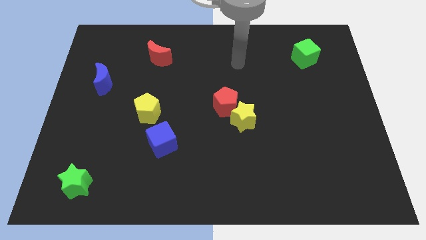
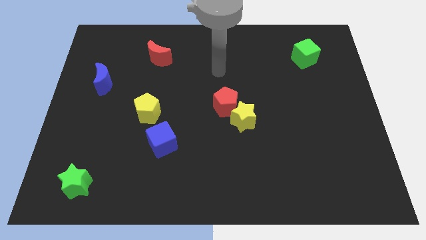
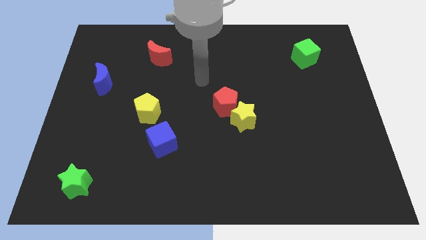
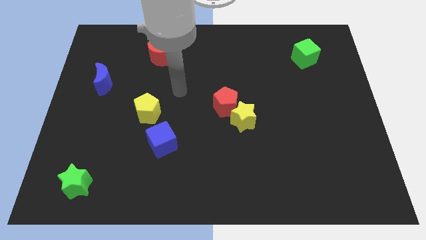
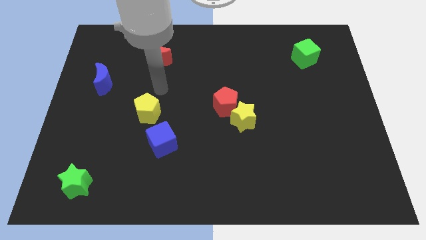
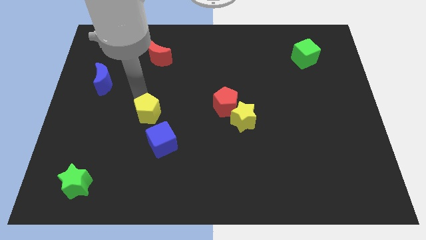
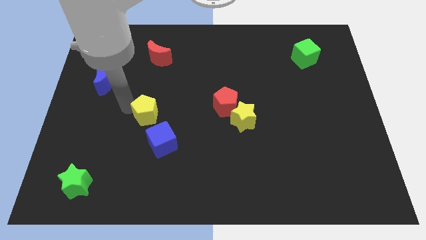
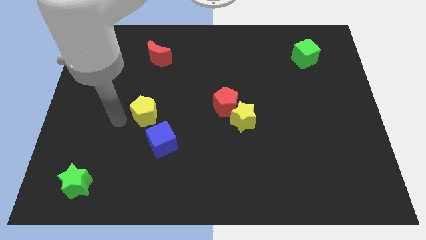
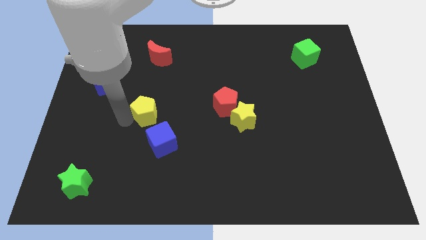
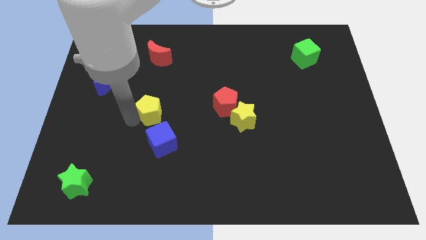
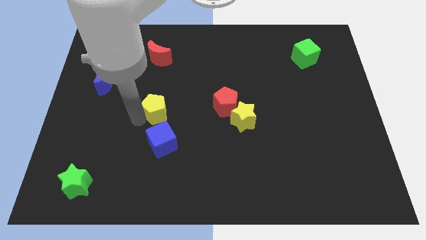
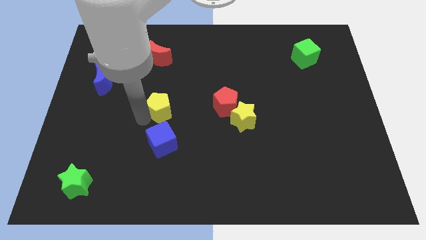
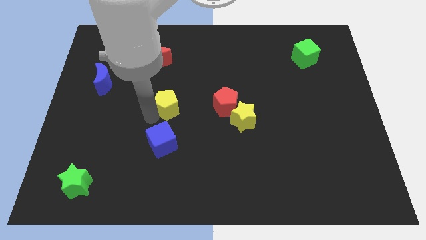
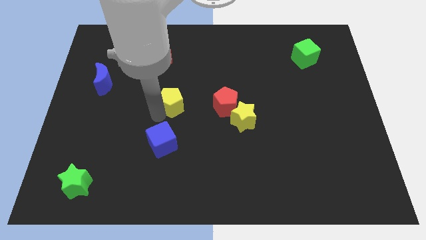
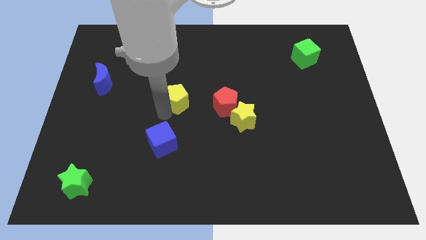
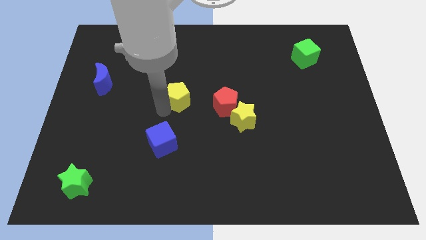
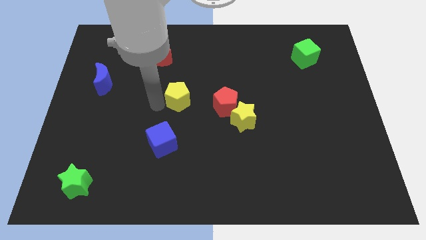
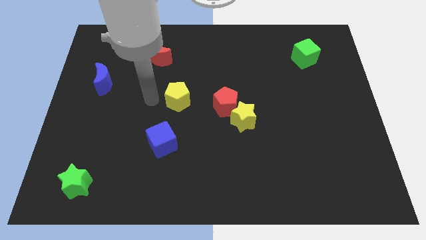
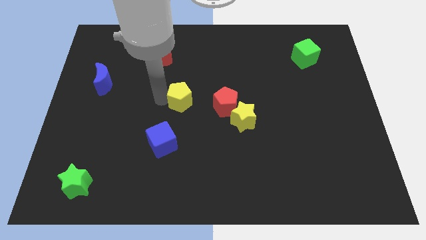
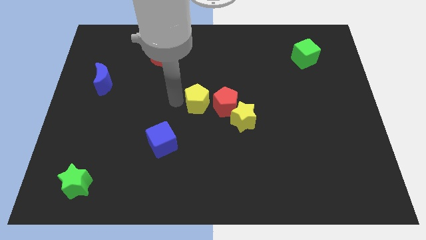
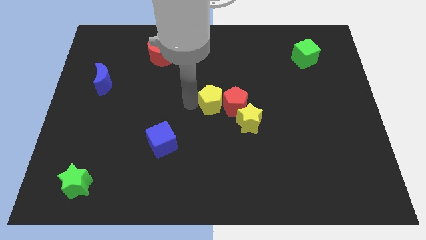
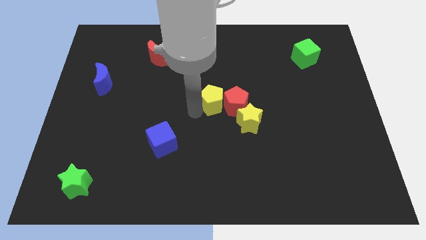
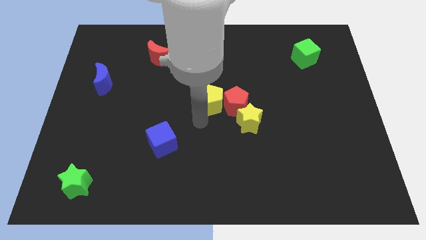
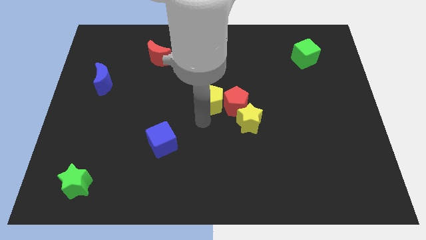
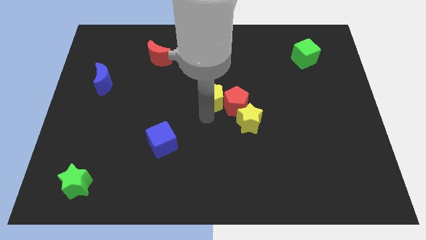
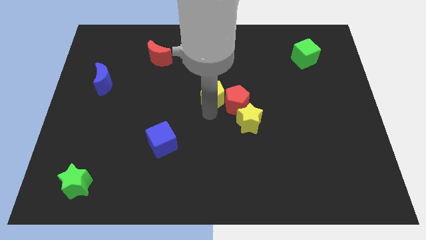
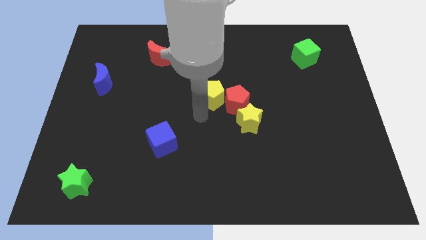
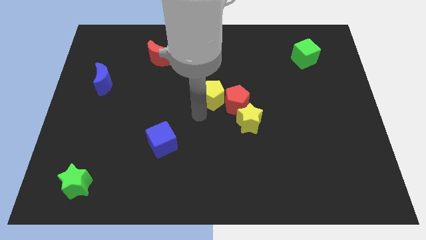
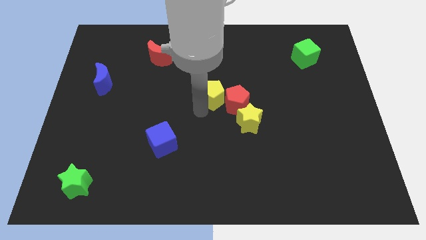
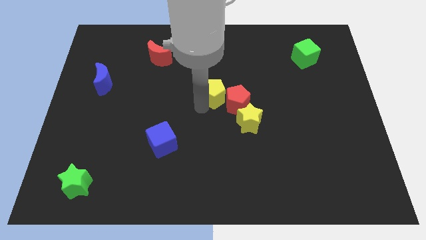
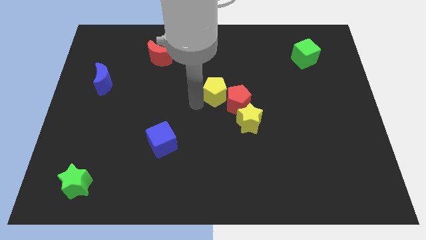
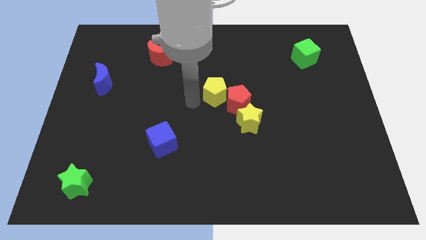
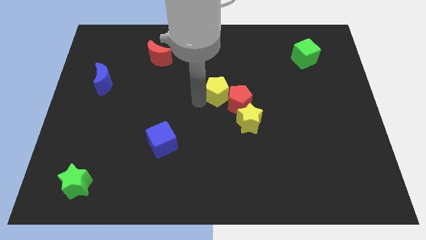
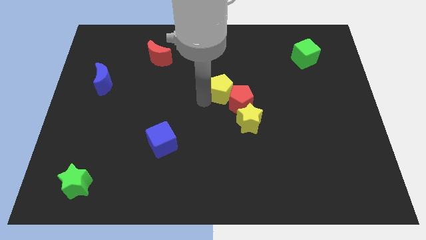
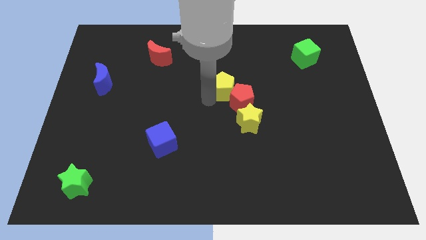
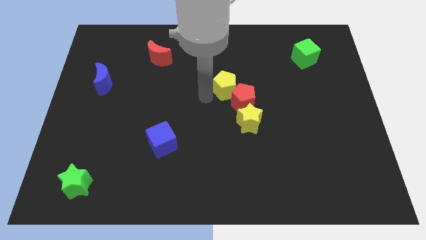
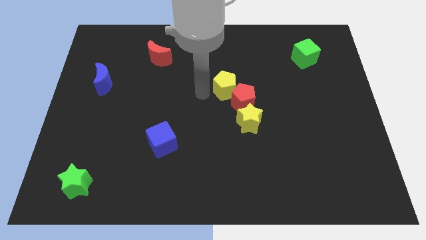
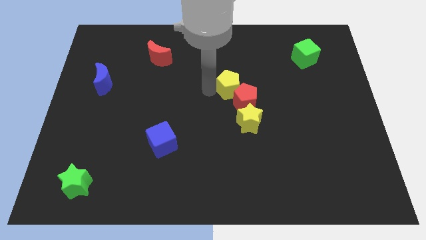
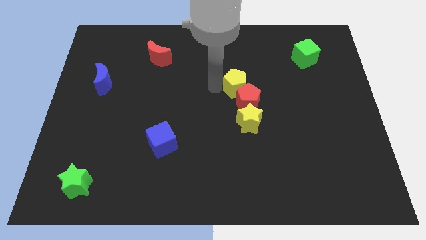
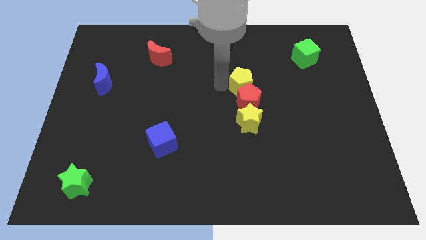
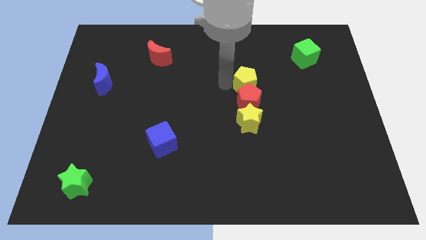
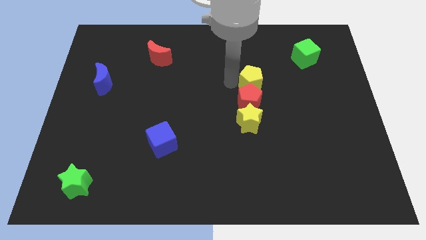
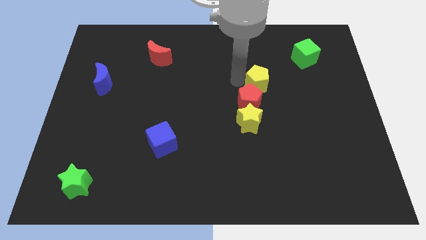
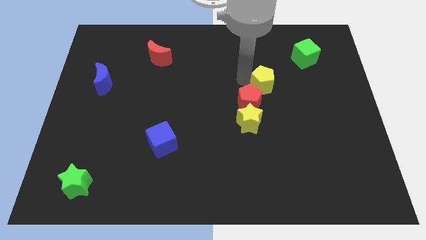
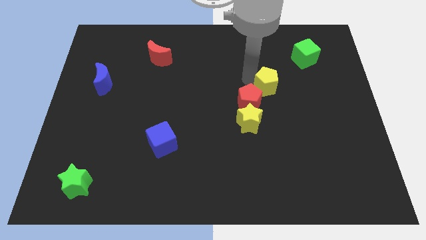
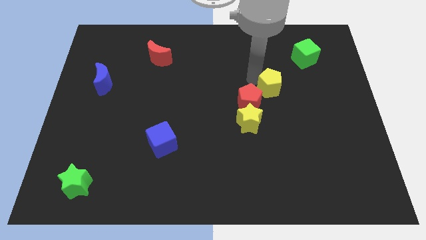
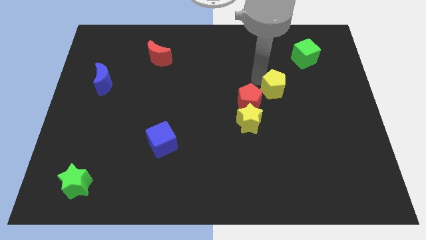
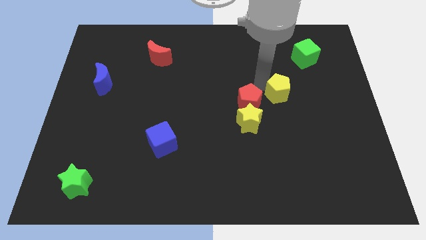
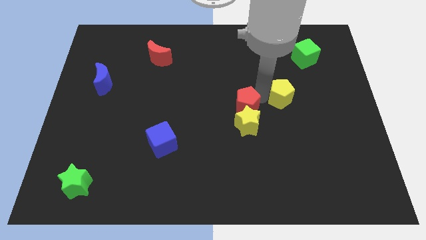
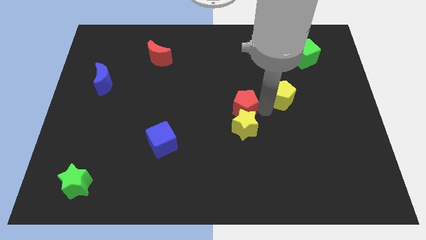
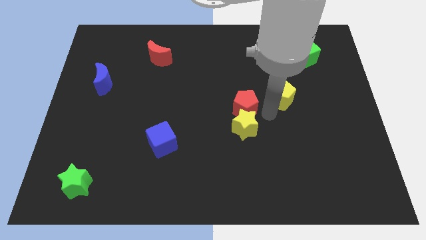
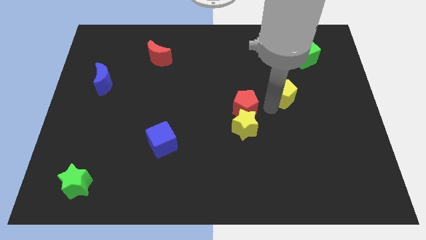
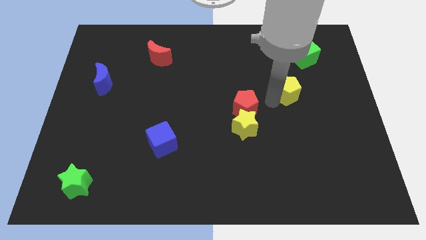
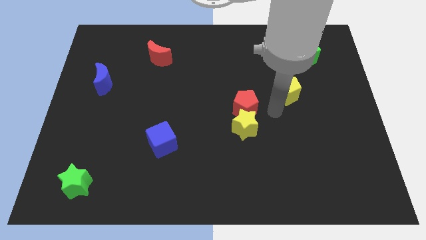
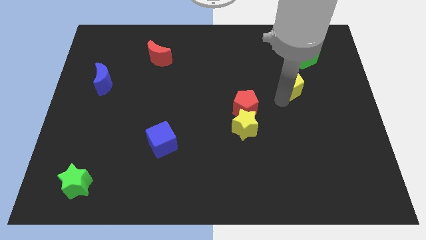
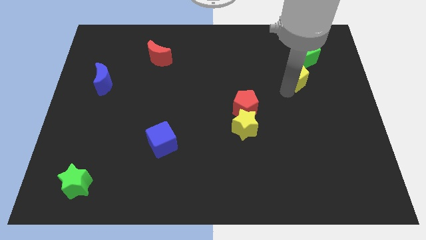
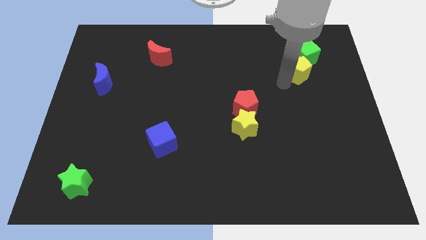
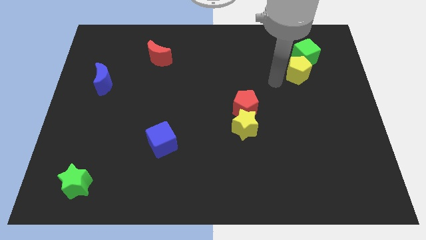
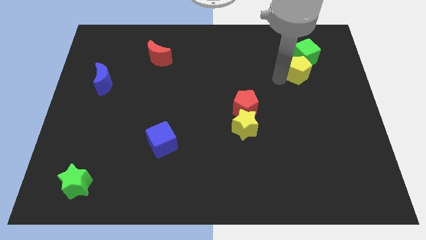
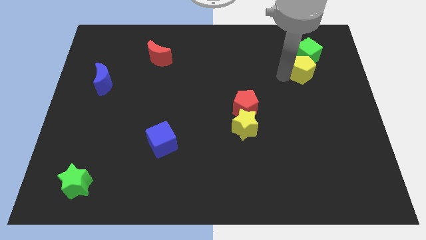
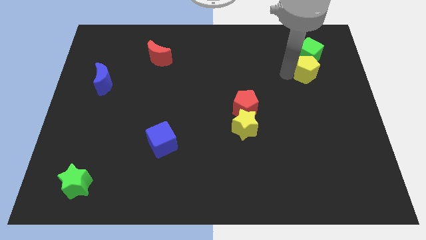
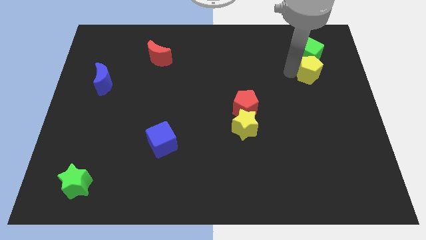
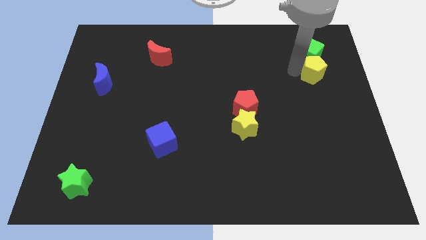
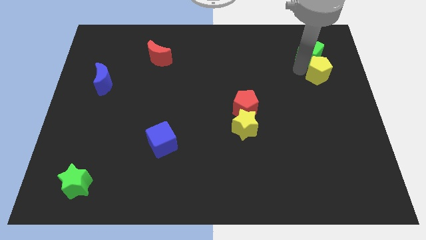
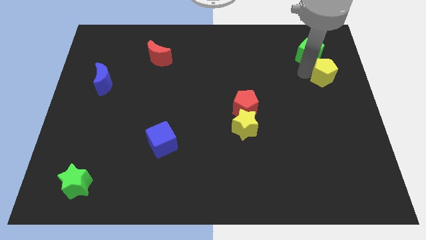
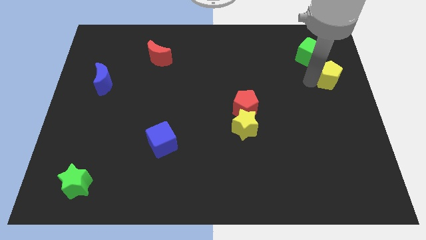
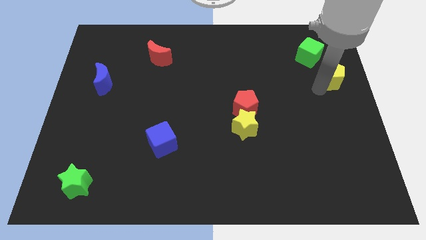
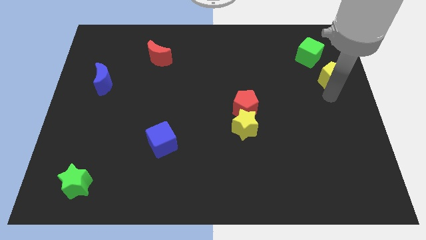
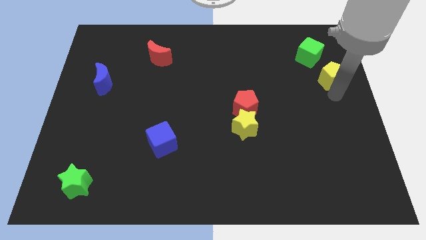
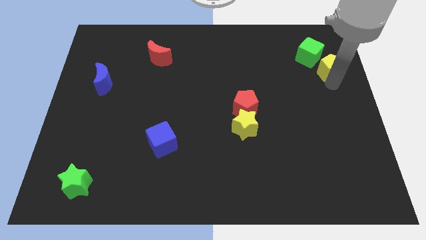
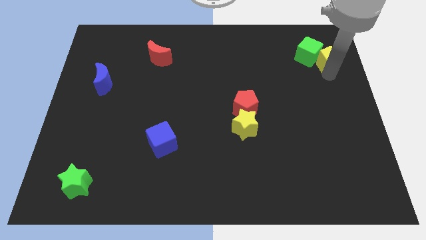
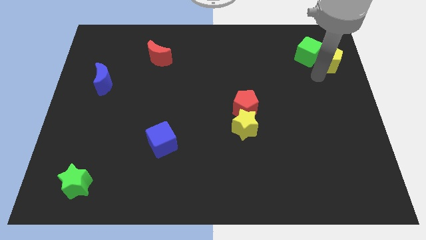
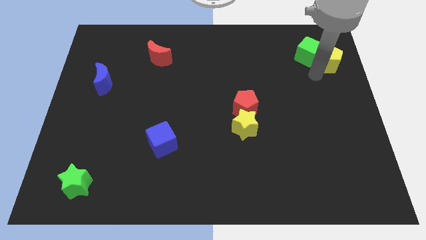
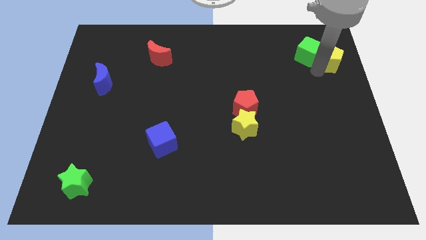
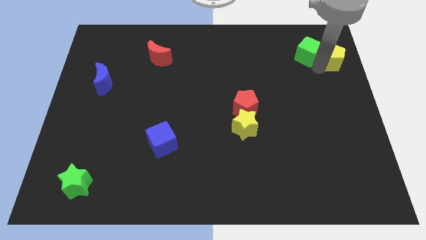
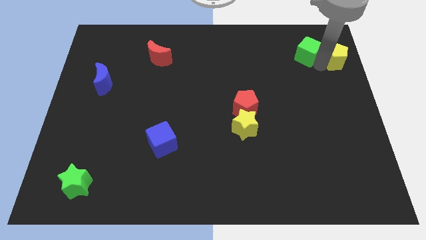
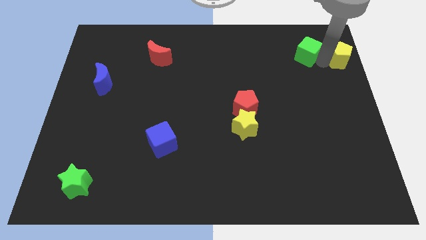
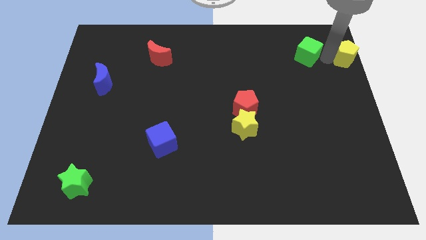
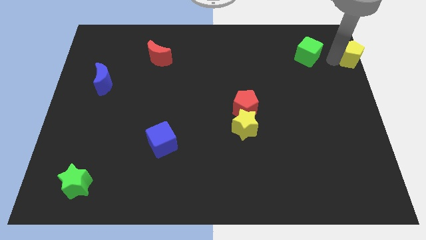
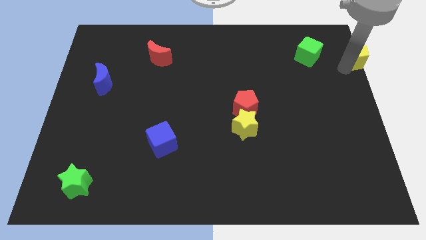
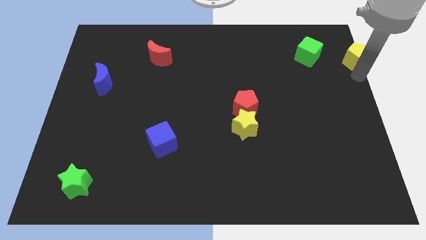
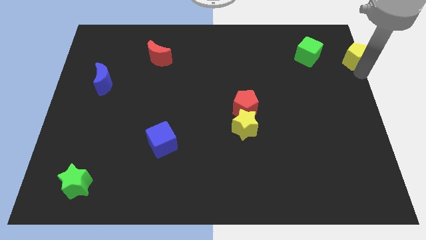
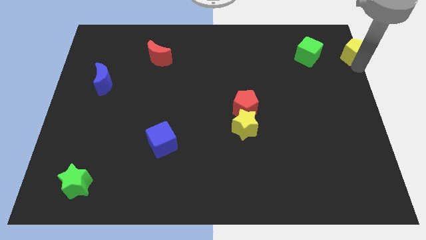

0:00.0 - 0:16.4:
slide the yellow pentagon to the top right of the board
